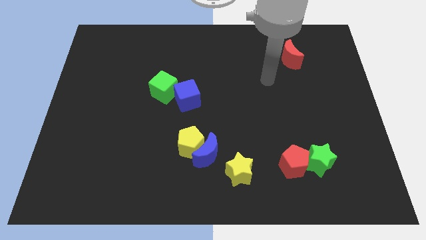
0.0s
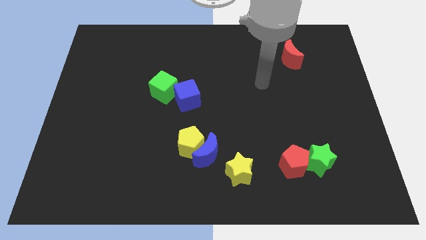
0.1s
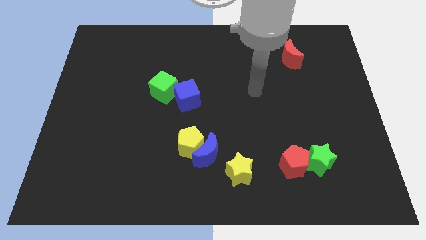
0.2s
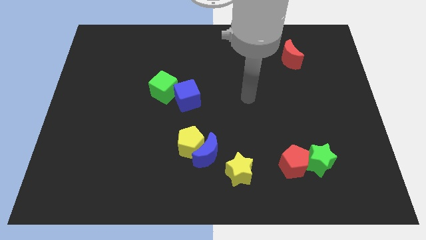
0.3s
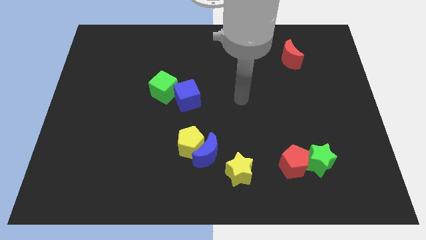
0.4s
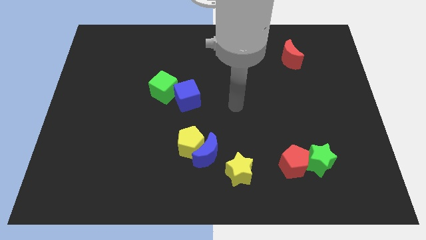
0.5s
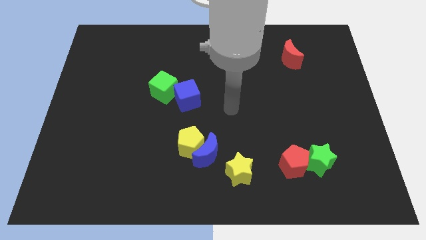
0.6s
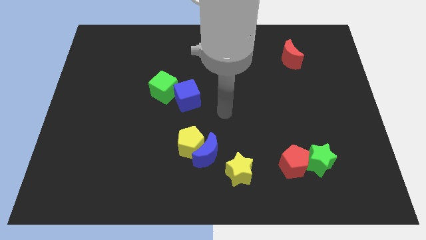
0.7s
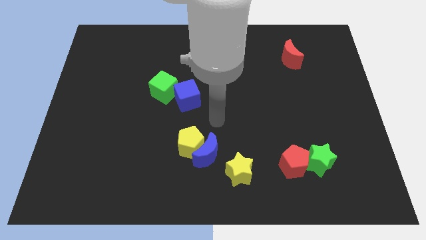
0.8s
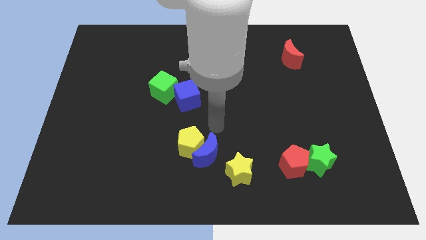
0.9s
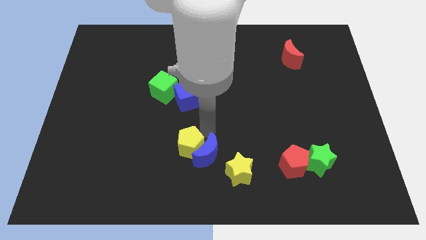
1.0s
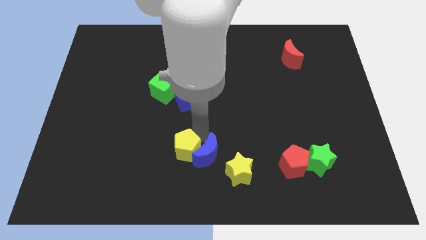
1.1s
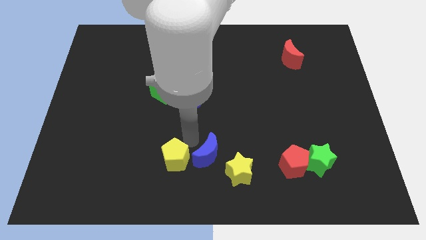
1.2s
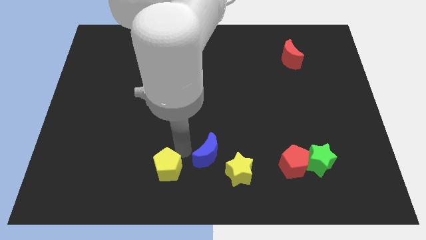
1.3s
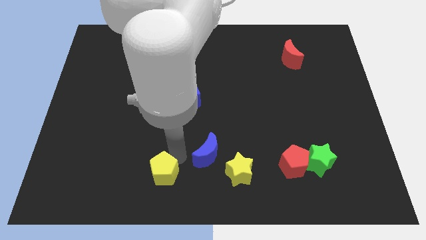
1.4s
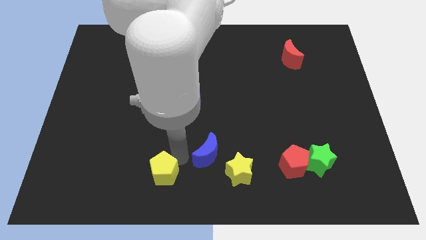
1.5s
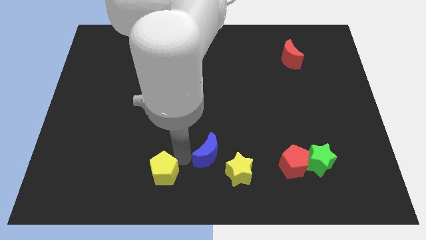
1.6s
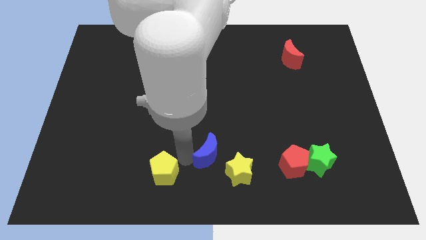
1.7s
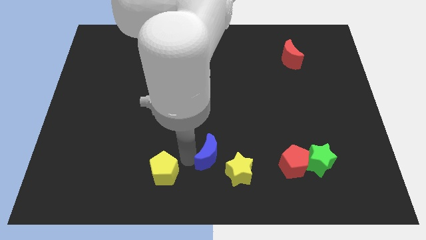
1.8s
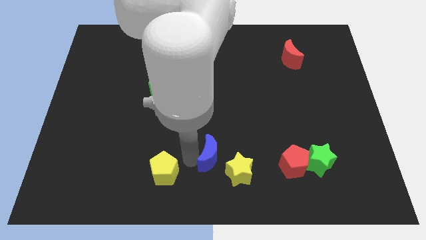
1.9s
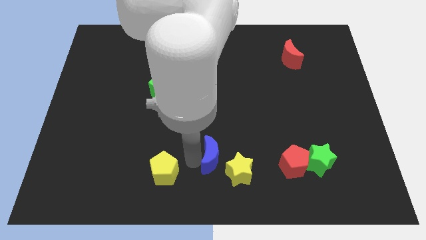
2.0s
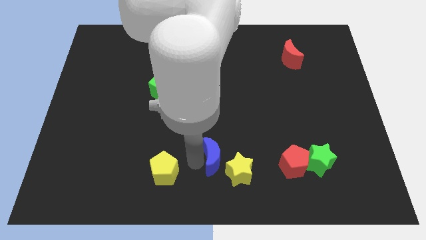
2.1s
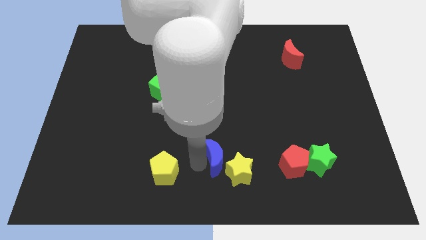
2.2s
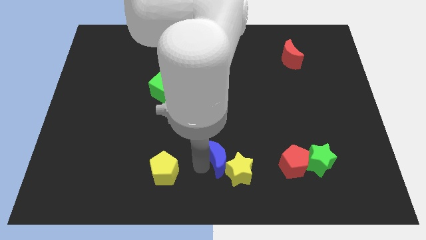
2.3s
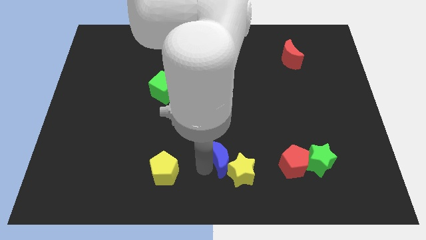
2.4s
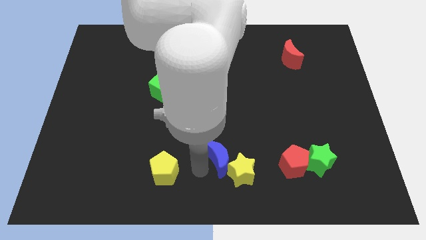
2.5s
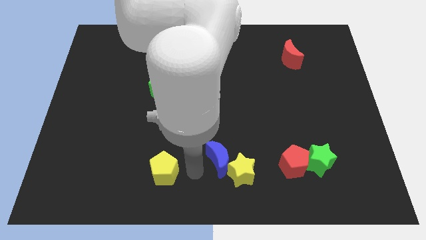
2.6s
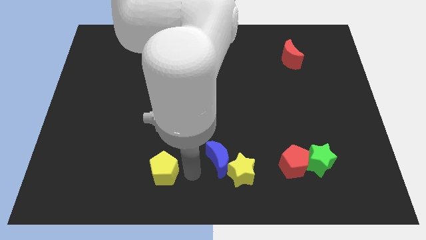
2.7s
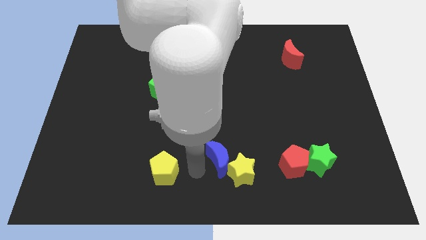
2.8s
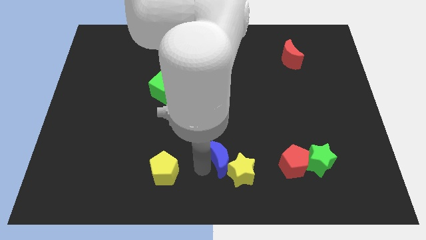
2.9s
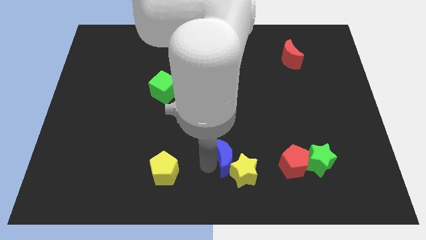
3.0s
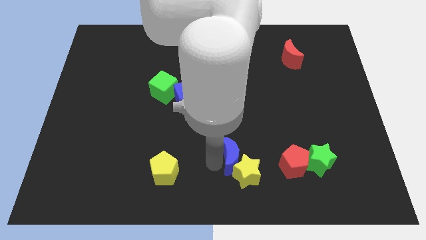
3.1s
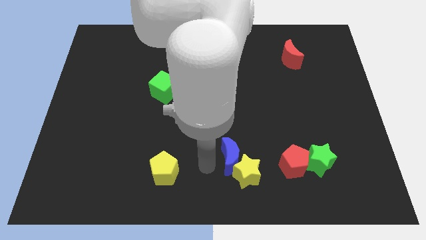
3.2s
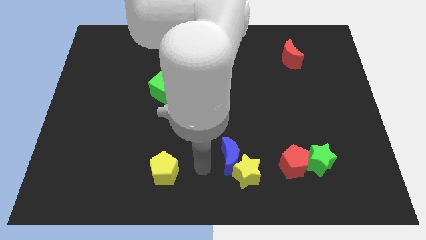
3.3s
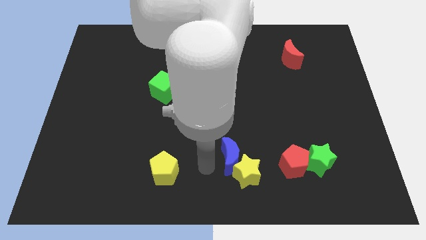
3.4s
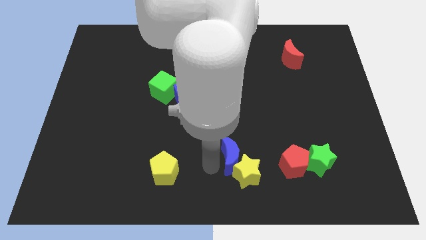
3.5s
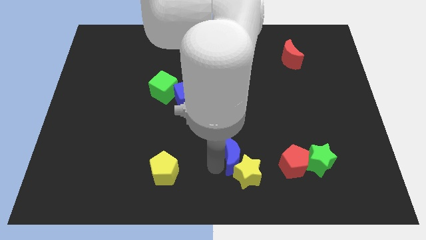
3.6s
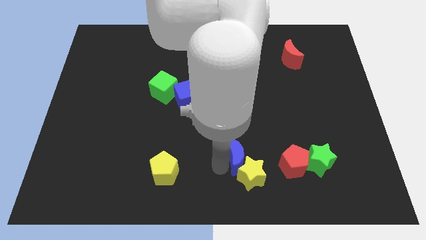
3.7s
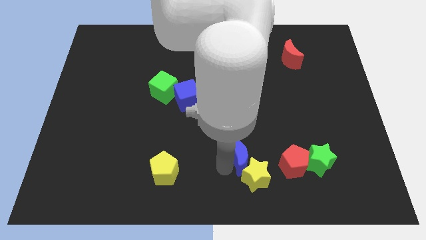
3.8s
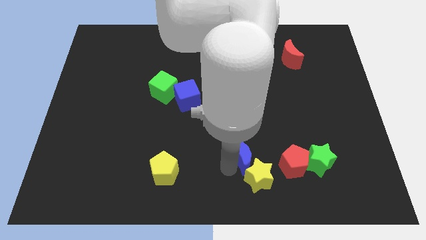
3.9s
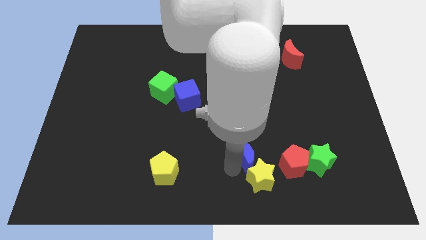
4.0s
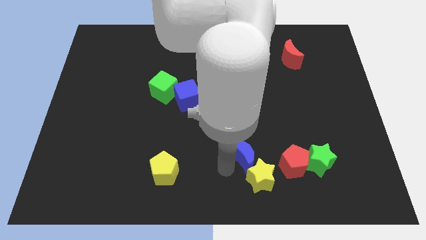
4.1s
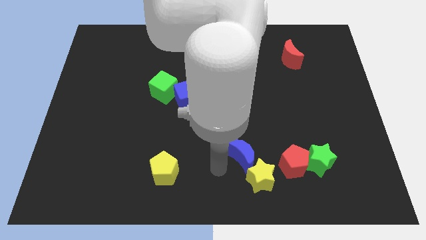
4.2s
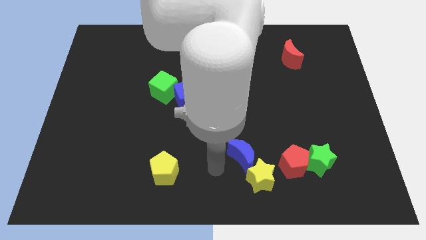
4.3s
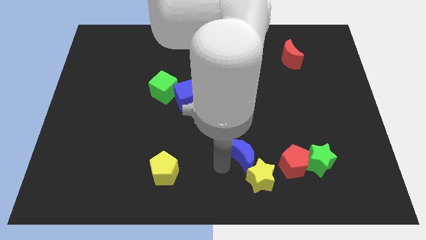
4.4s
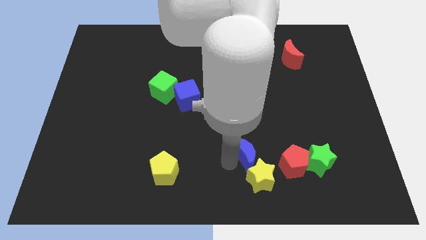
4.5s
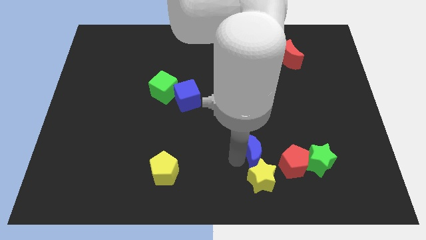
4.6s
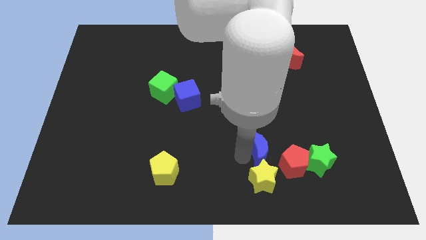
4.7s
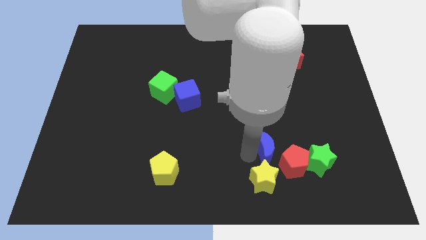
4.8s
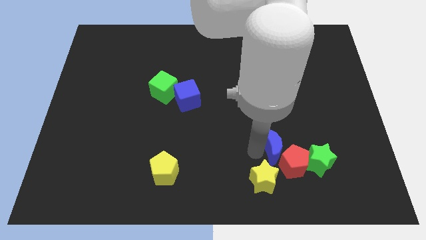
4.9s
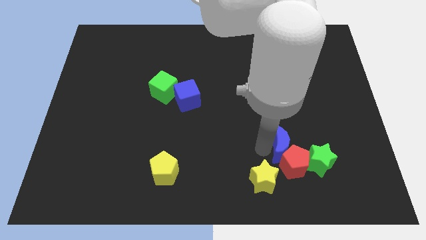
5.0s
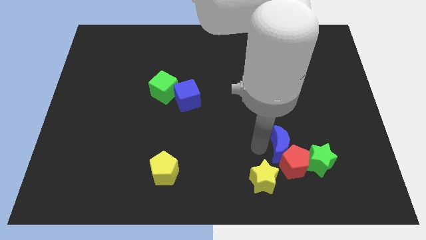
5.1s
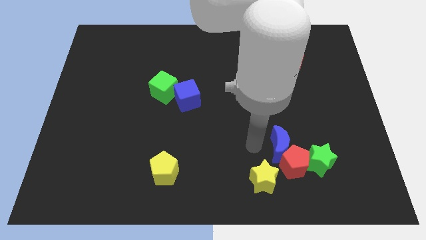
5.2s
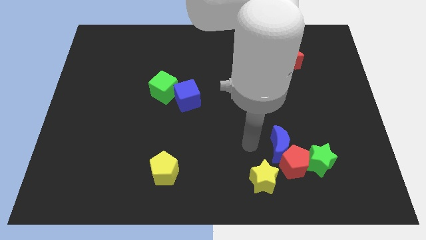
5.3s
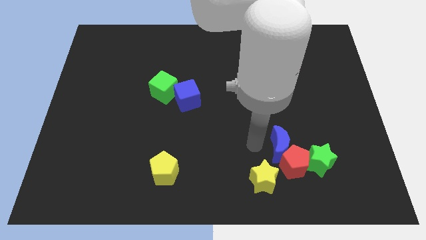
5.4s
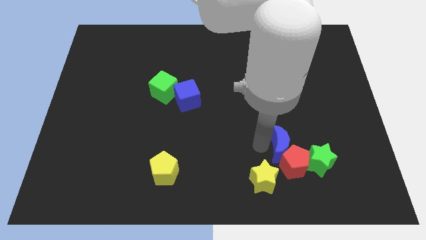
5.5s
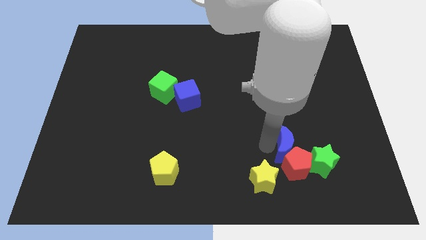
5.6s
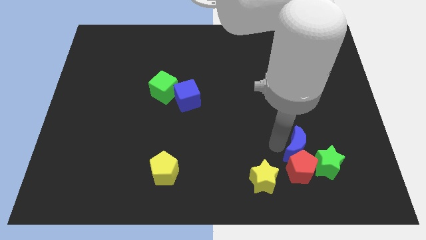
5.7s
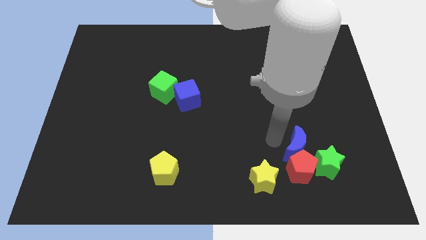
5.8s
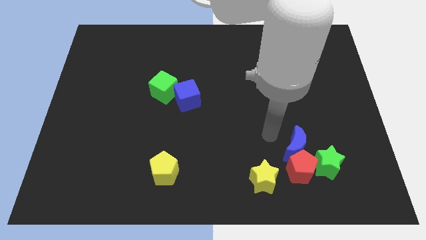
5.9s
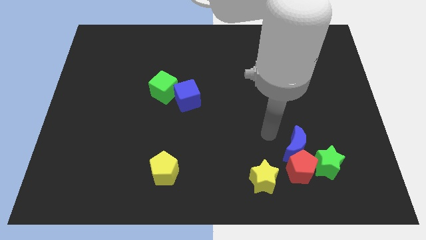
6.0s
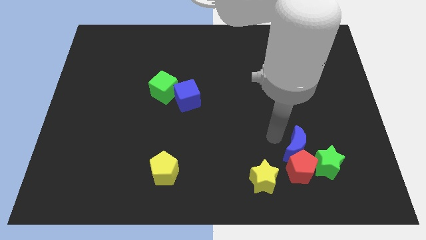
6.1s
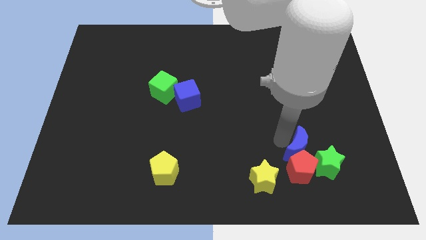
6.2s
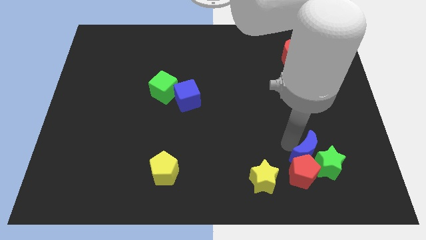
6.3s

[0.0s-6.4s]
push the blue moon close to the green star

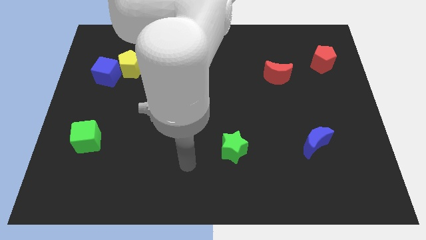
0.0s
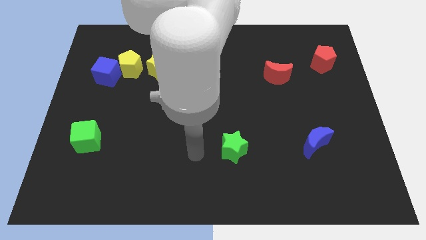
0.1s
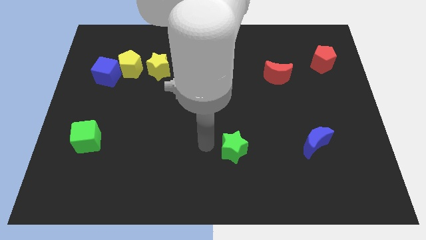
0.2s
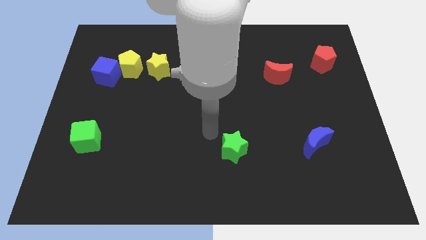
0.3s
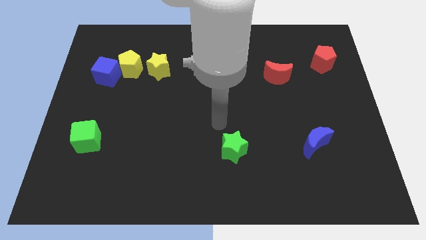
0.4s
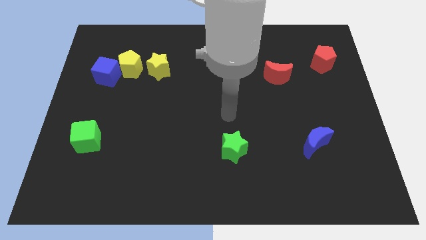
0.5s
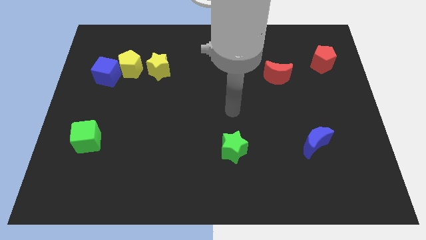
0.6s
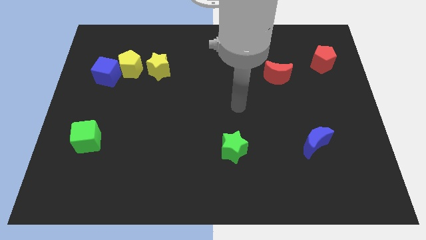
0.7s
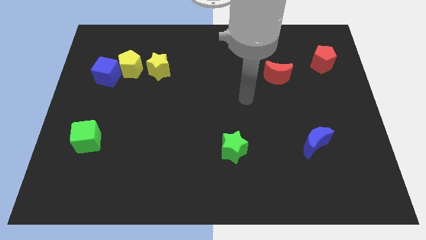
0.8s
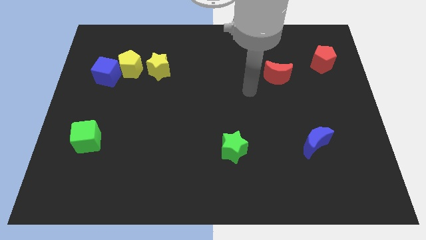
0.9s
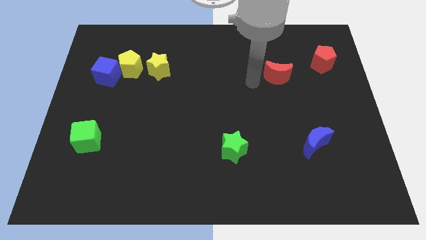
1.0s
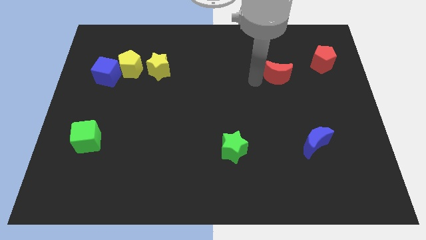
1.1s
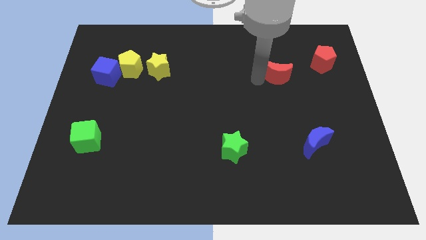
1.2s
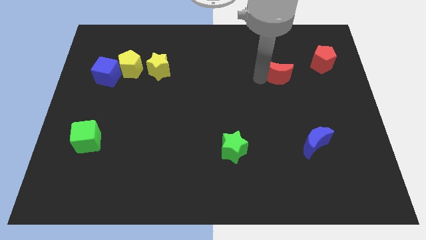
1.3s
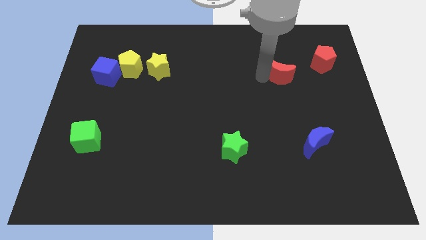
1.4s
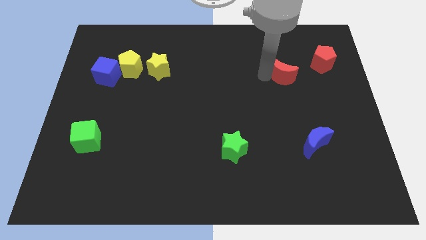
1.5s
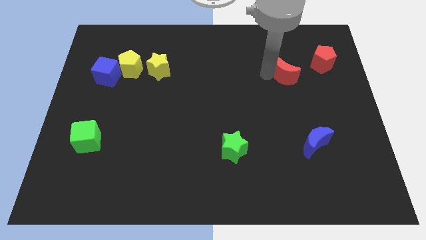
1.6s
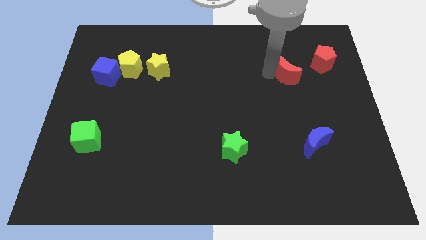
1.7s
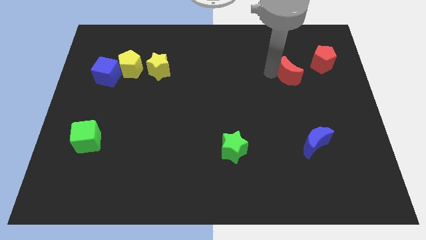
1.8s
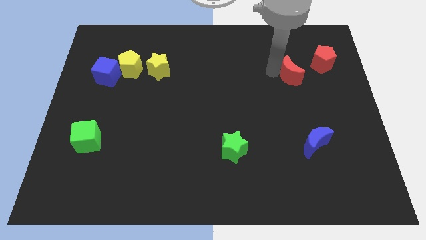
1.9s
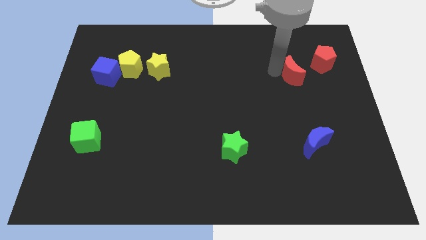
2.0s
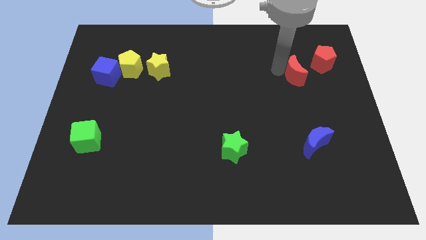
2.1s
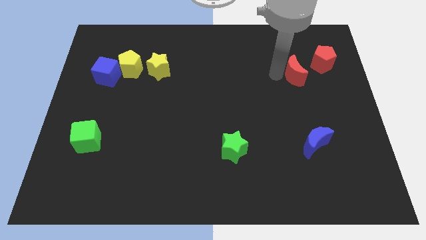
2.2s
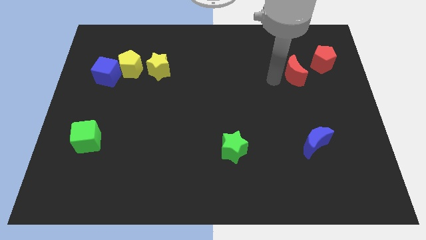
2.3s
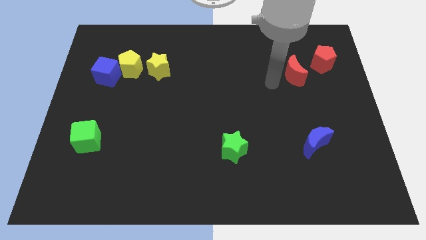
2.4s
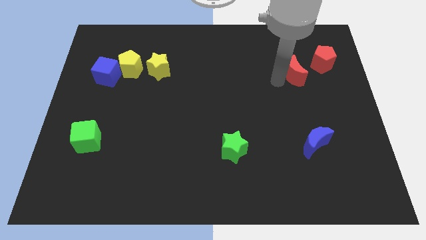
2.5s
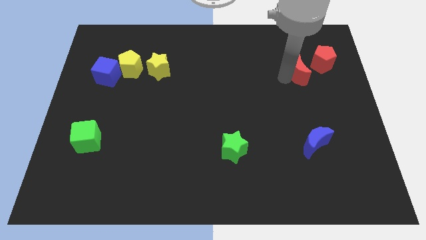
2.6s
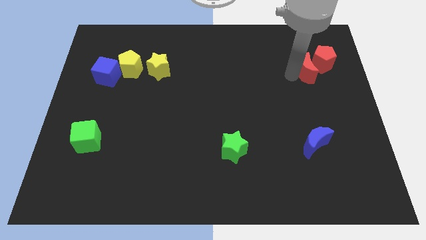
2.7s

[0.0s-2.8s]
slide the red moon towards the red pentagon
